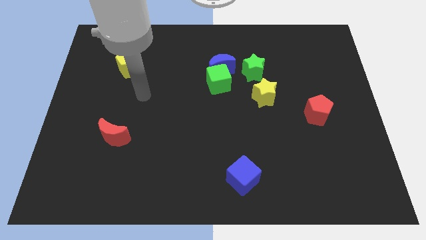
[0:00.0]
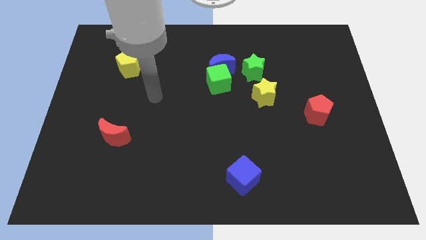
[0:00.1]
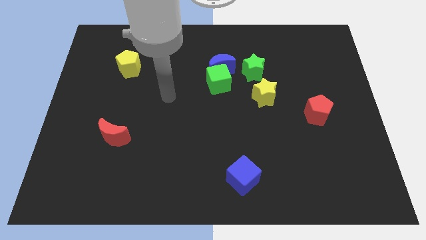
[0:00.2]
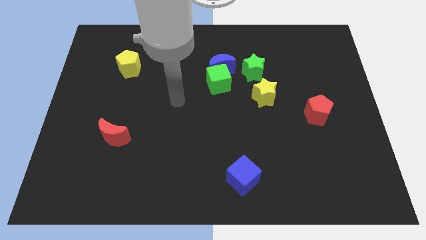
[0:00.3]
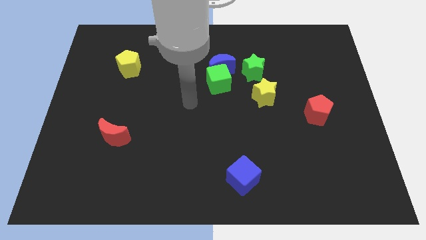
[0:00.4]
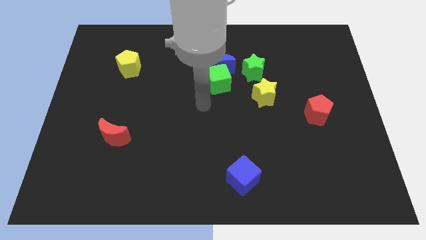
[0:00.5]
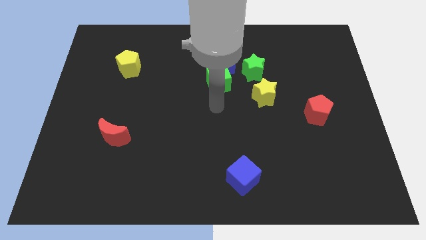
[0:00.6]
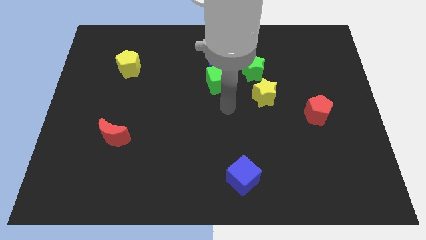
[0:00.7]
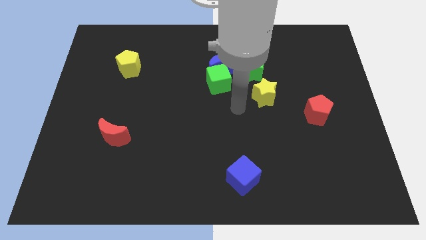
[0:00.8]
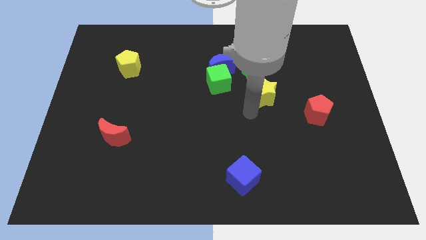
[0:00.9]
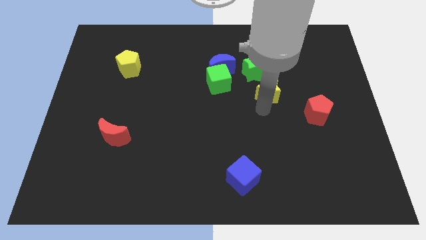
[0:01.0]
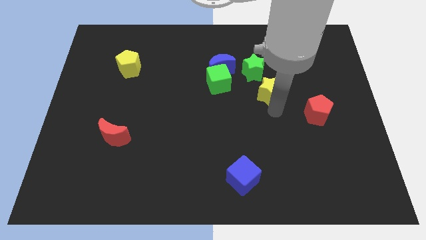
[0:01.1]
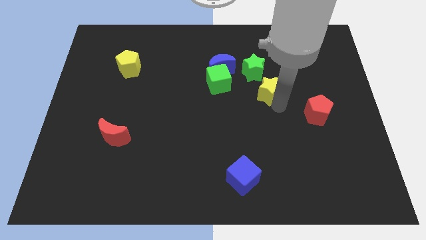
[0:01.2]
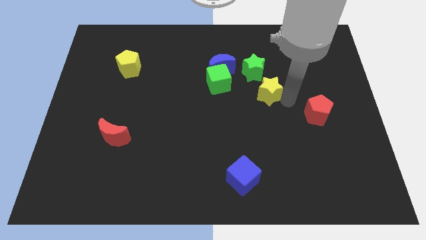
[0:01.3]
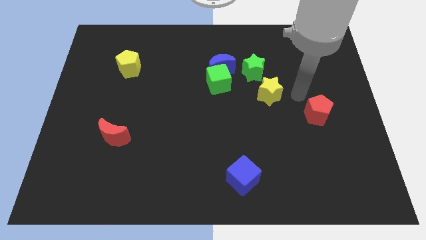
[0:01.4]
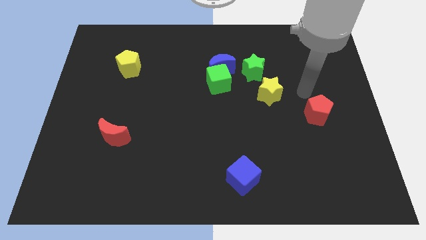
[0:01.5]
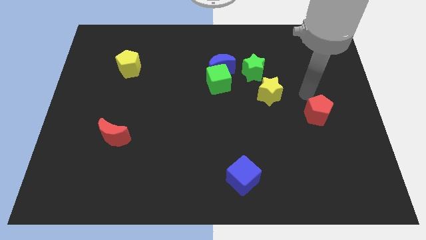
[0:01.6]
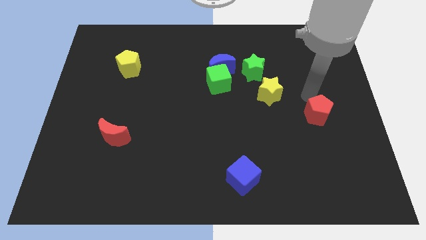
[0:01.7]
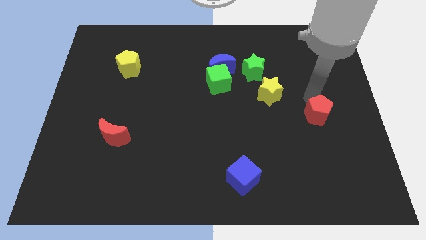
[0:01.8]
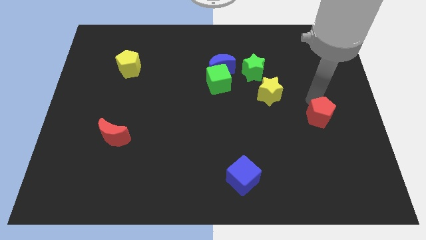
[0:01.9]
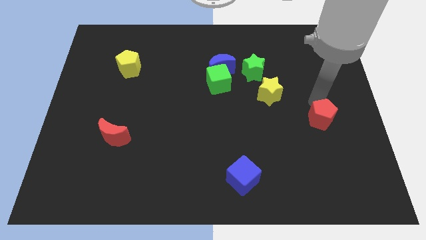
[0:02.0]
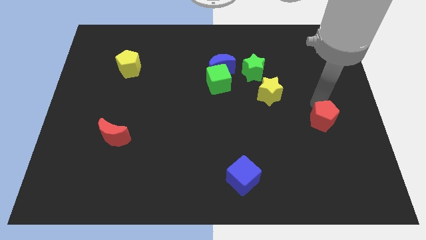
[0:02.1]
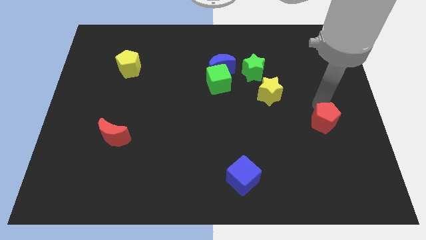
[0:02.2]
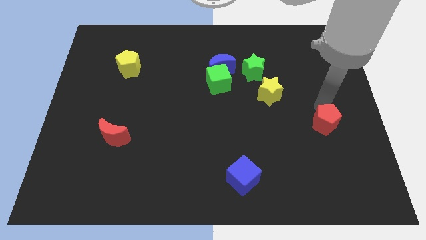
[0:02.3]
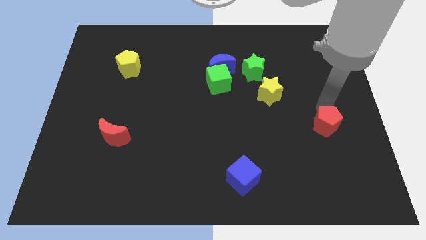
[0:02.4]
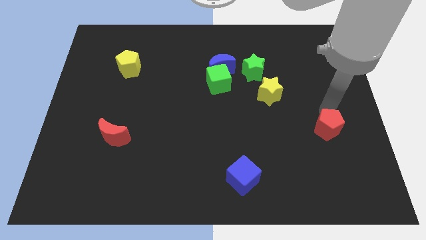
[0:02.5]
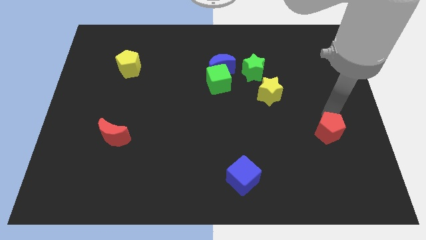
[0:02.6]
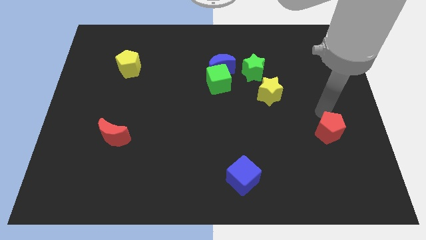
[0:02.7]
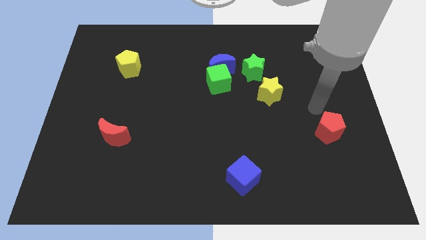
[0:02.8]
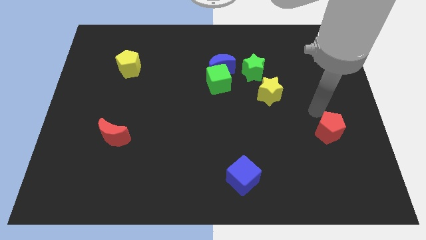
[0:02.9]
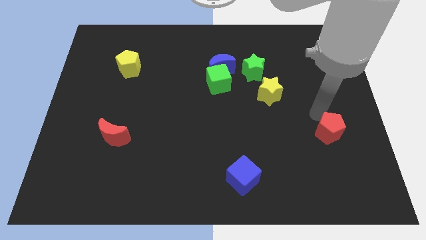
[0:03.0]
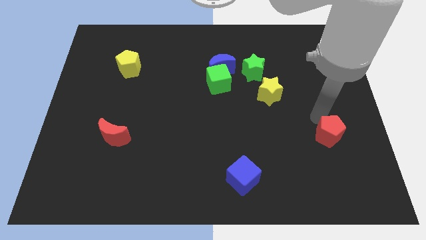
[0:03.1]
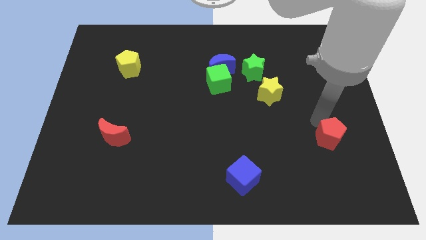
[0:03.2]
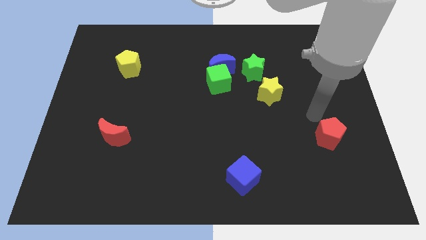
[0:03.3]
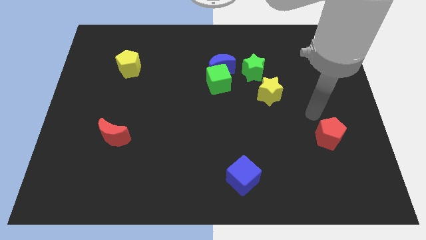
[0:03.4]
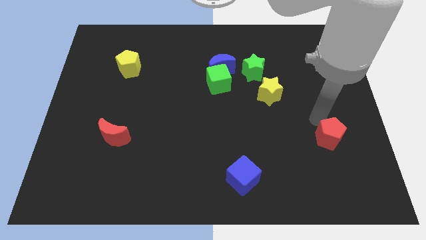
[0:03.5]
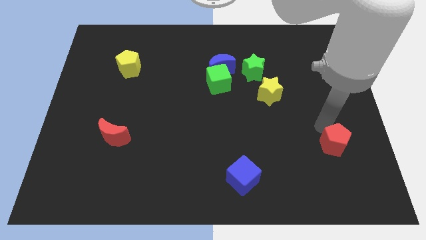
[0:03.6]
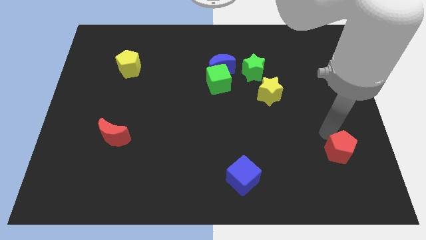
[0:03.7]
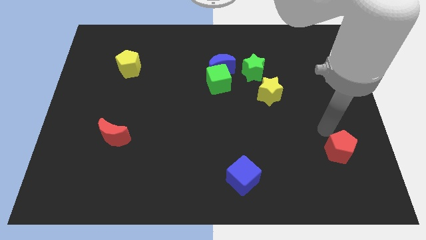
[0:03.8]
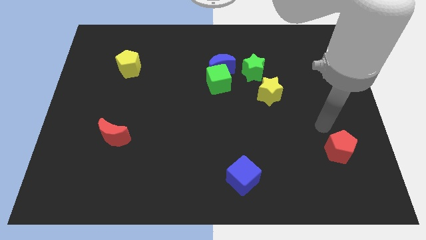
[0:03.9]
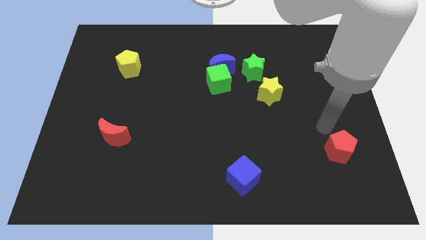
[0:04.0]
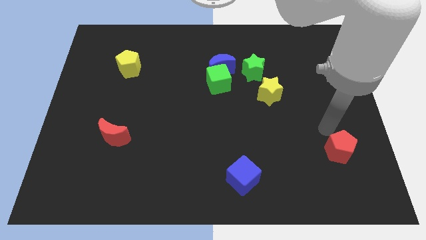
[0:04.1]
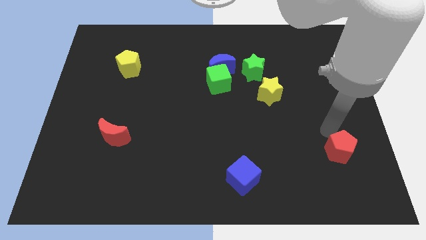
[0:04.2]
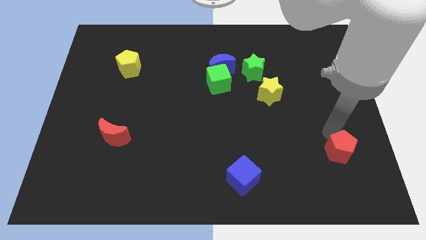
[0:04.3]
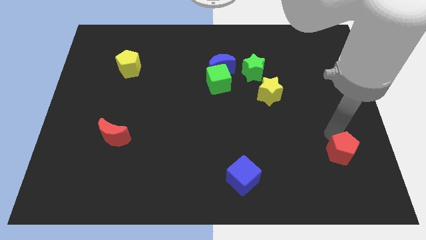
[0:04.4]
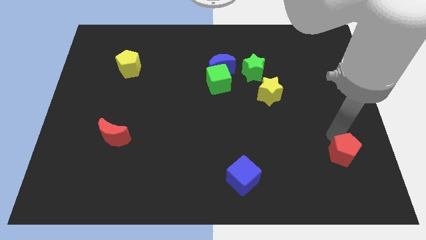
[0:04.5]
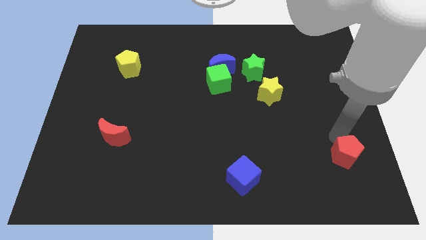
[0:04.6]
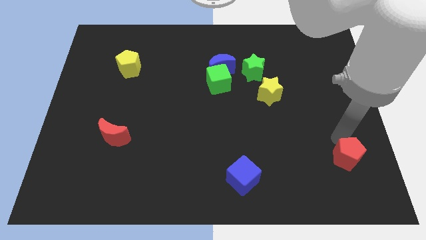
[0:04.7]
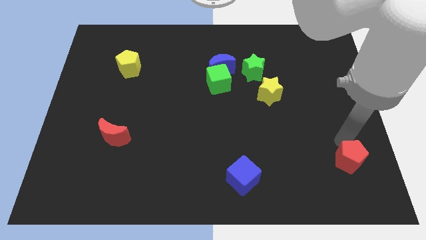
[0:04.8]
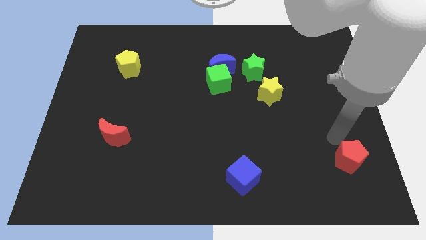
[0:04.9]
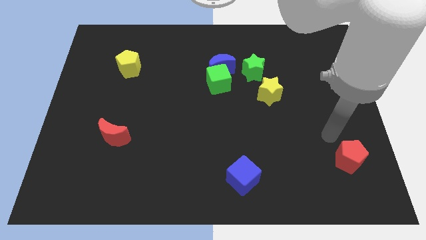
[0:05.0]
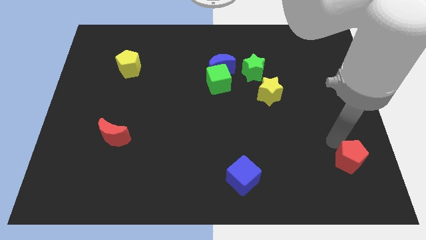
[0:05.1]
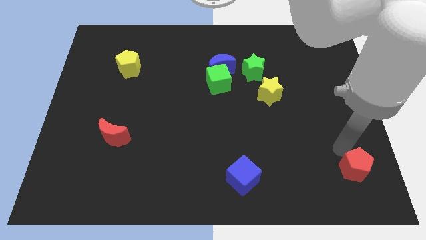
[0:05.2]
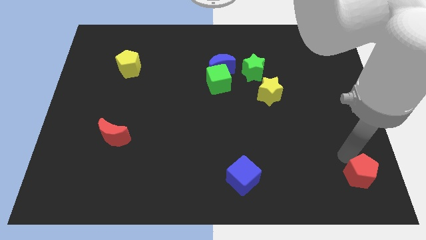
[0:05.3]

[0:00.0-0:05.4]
put the red pentagon to the bottom right of the board

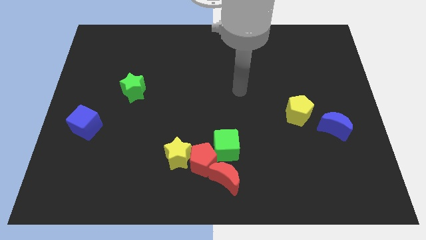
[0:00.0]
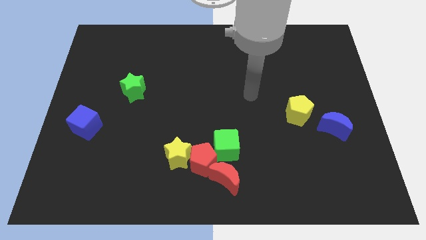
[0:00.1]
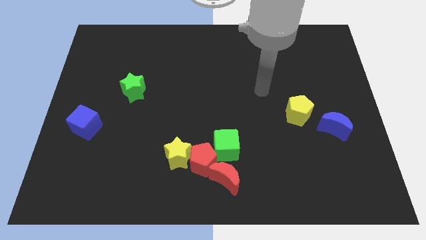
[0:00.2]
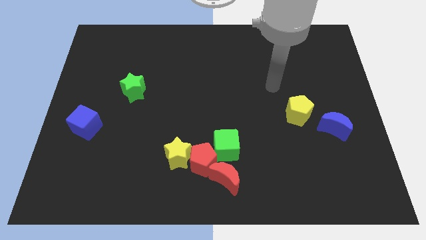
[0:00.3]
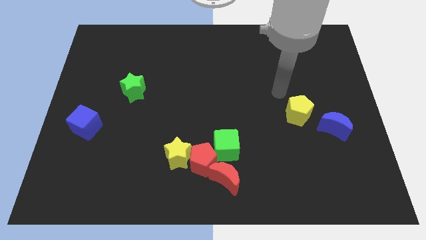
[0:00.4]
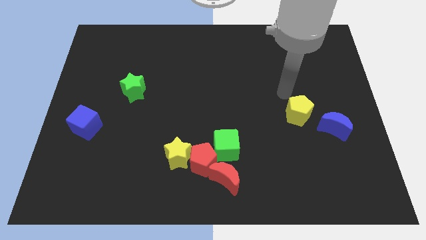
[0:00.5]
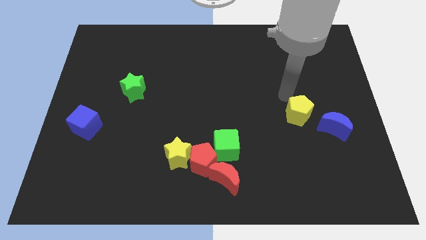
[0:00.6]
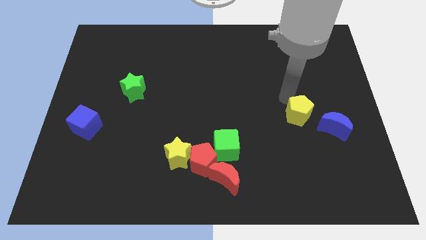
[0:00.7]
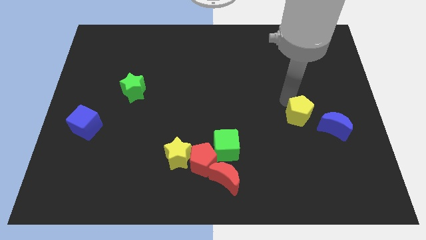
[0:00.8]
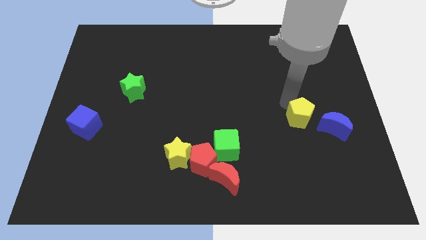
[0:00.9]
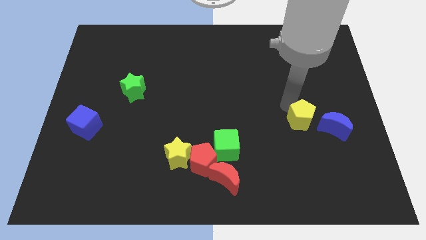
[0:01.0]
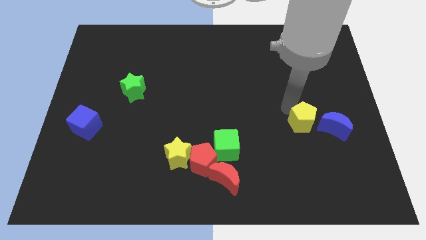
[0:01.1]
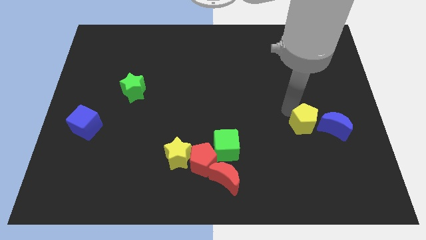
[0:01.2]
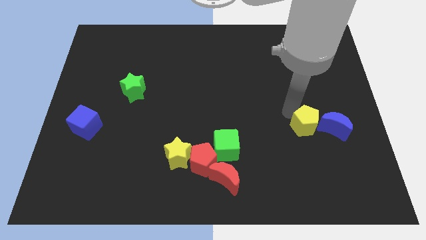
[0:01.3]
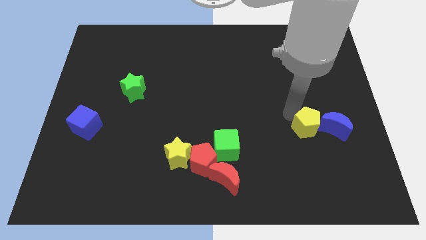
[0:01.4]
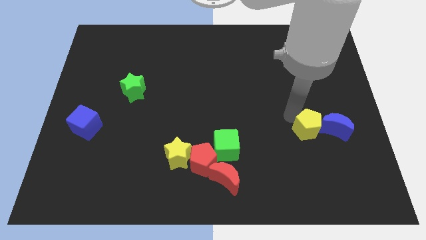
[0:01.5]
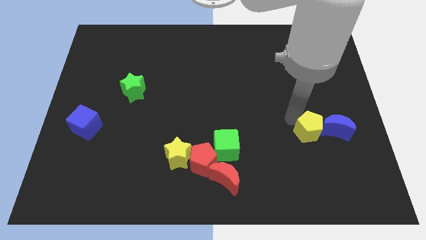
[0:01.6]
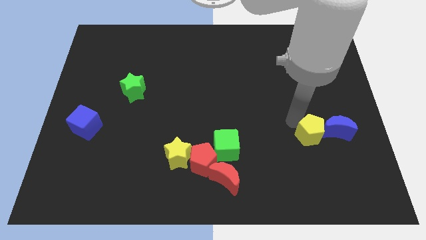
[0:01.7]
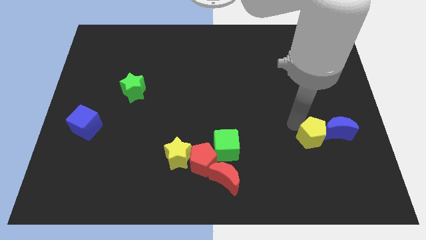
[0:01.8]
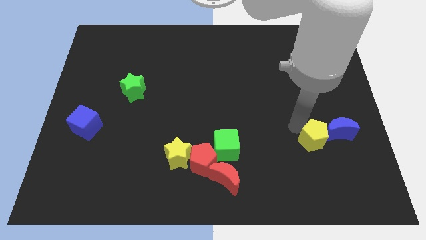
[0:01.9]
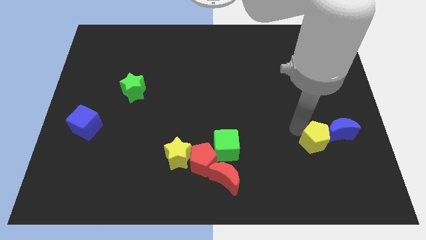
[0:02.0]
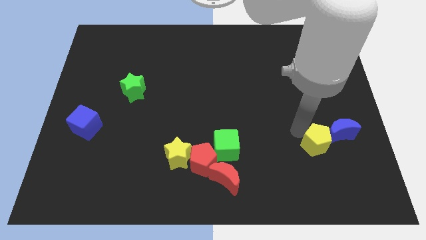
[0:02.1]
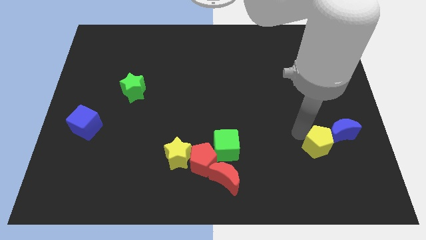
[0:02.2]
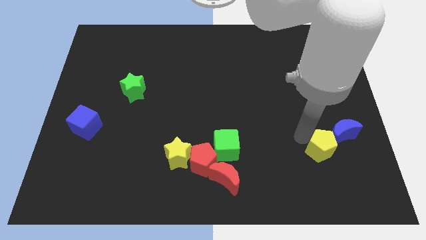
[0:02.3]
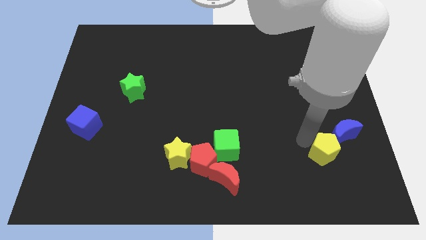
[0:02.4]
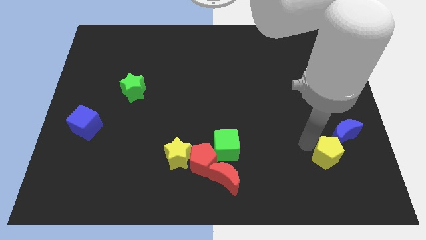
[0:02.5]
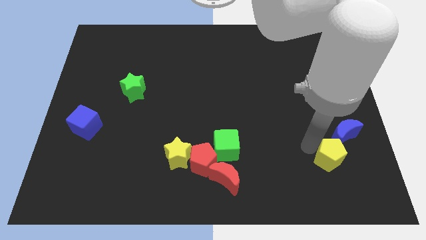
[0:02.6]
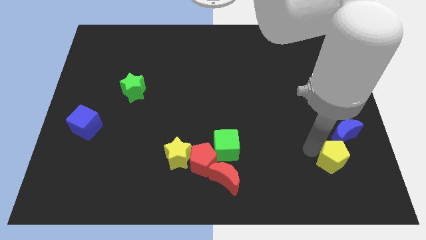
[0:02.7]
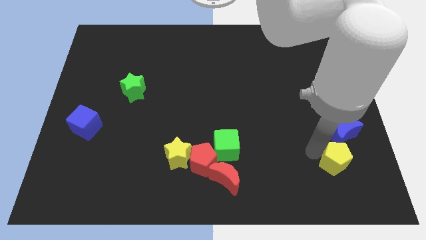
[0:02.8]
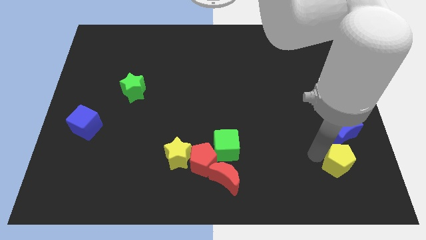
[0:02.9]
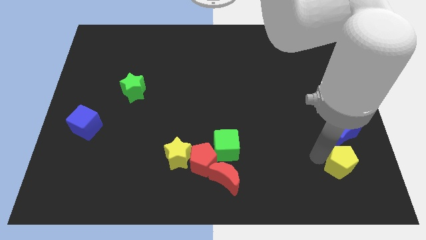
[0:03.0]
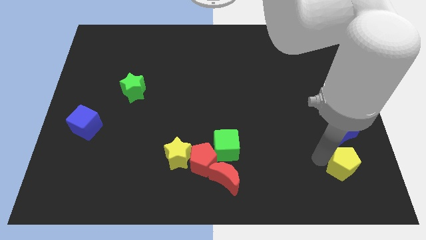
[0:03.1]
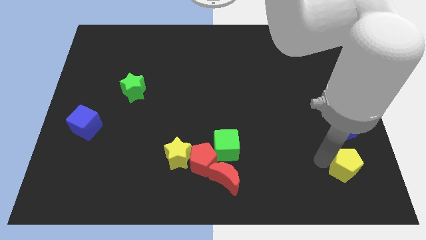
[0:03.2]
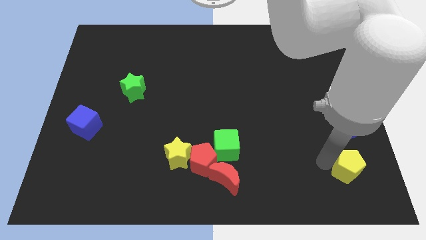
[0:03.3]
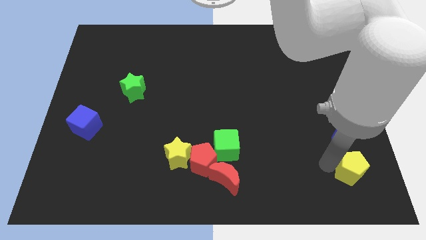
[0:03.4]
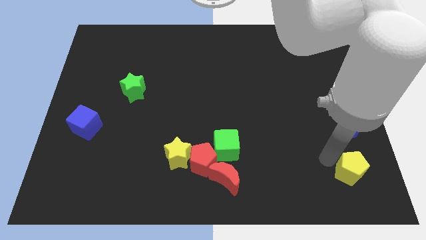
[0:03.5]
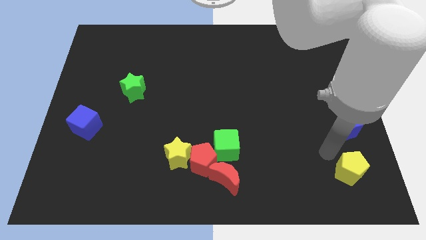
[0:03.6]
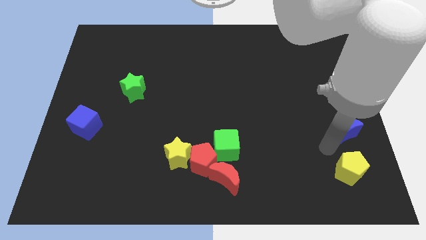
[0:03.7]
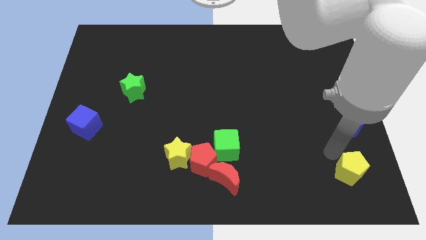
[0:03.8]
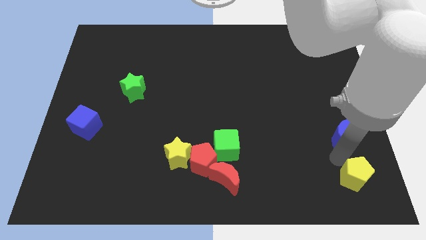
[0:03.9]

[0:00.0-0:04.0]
put the yellow pentagon to the bottom right of the board
